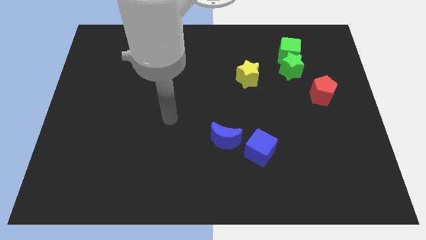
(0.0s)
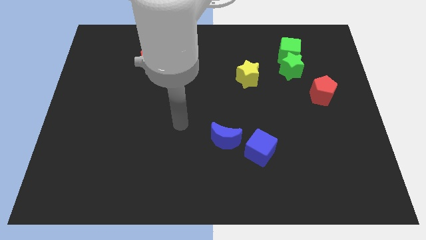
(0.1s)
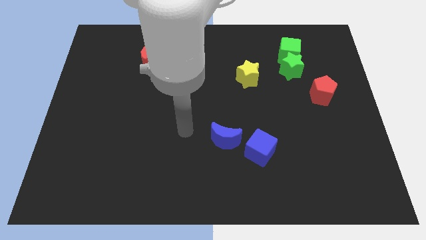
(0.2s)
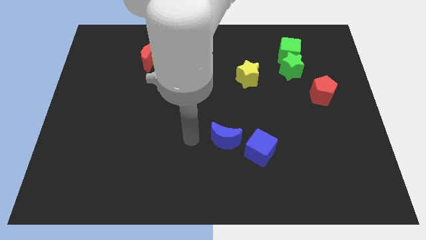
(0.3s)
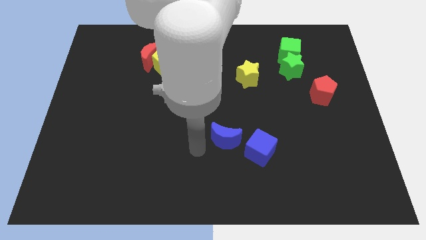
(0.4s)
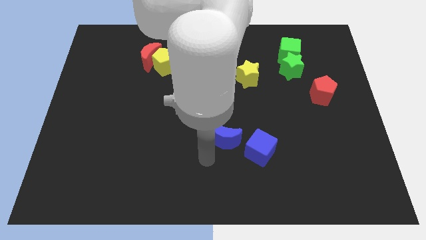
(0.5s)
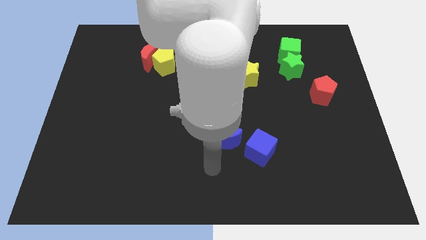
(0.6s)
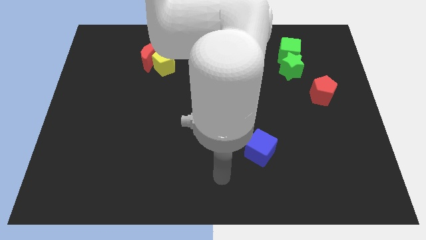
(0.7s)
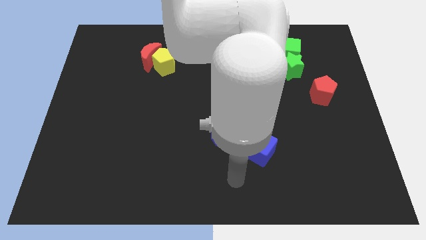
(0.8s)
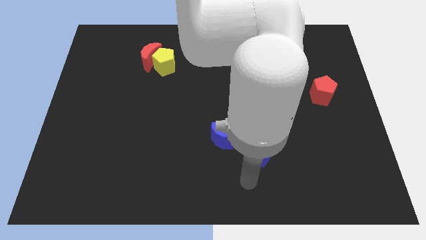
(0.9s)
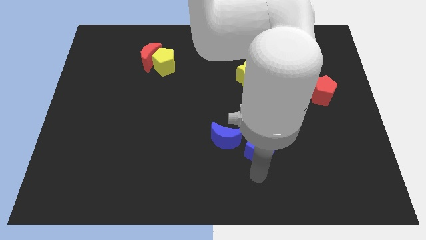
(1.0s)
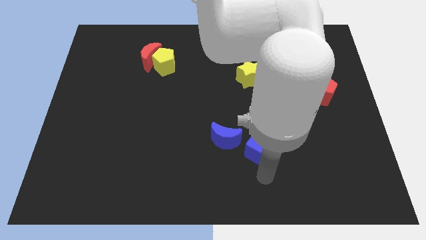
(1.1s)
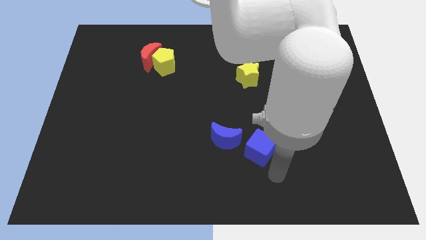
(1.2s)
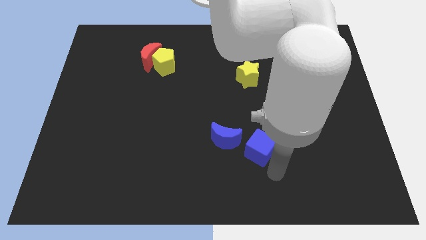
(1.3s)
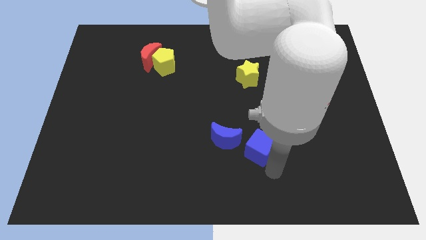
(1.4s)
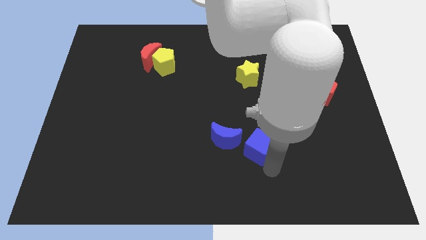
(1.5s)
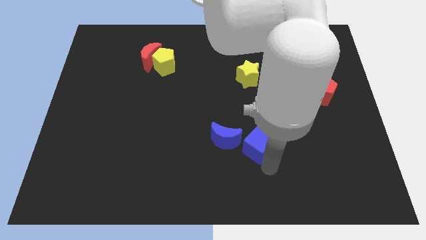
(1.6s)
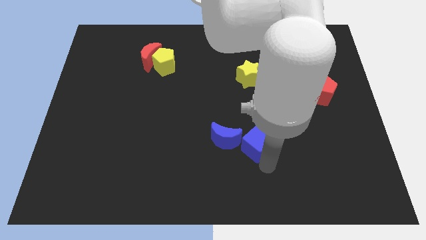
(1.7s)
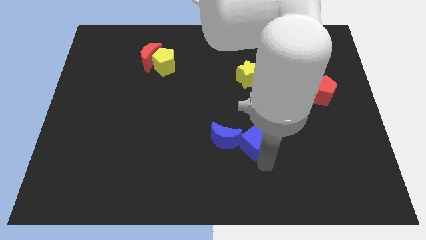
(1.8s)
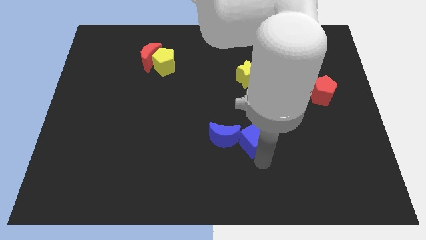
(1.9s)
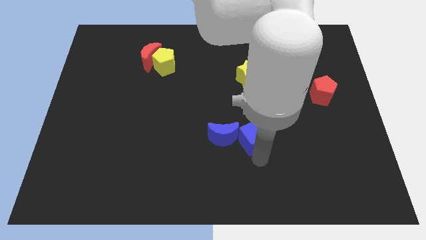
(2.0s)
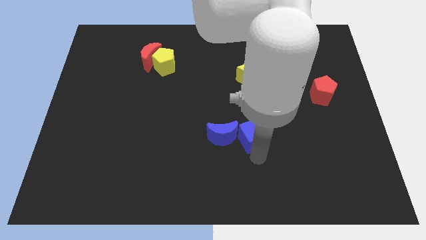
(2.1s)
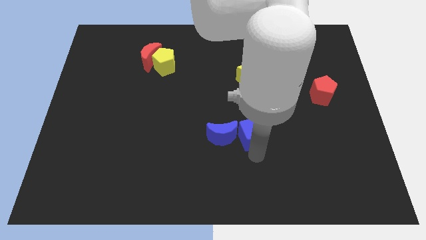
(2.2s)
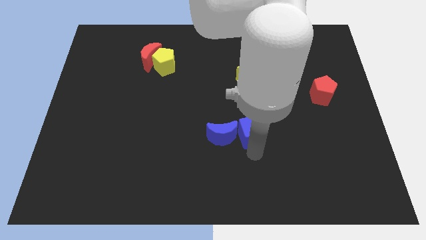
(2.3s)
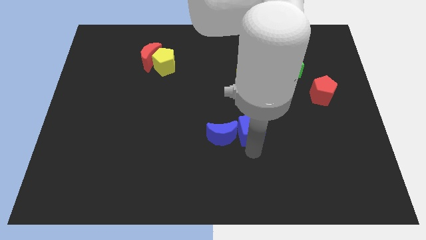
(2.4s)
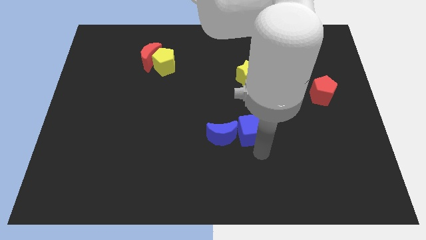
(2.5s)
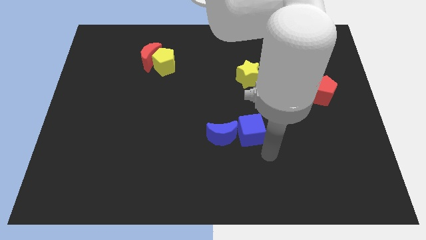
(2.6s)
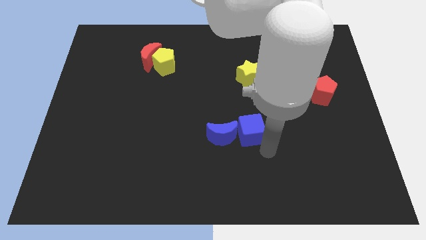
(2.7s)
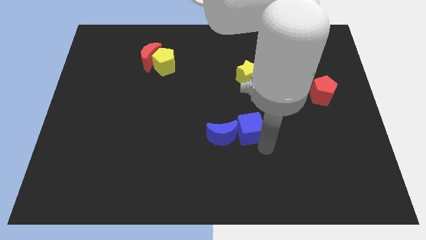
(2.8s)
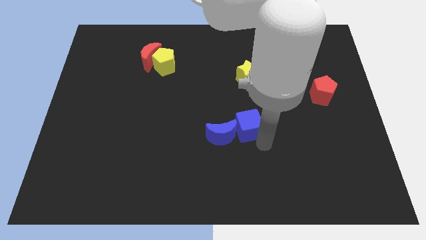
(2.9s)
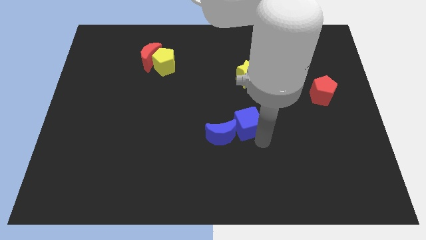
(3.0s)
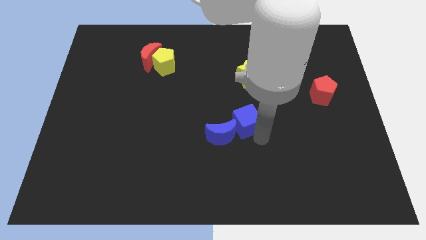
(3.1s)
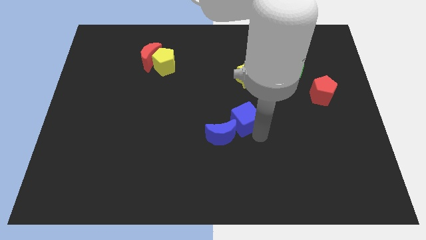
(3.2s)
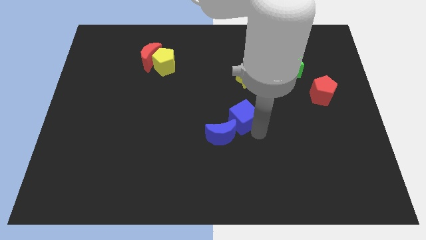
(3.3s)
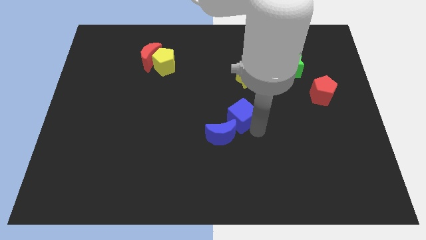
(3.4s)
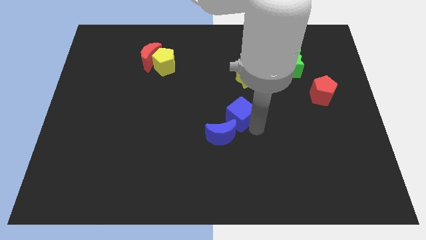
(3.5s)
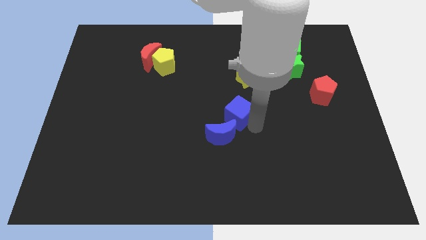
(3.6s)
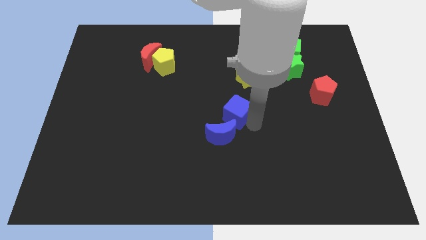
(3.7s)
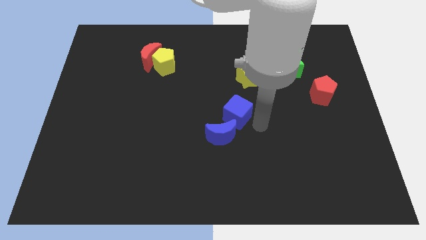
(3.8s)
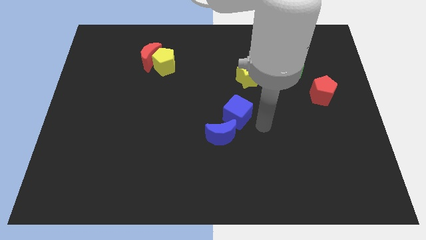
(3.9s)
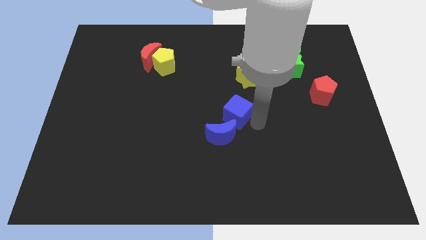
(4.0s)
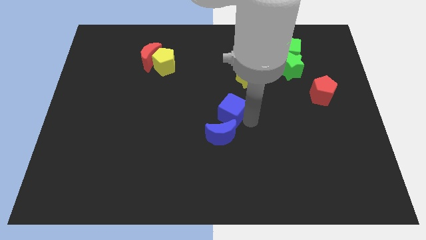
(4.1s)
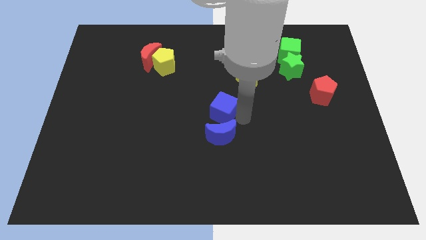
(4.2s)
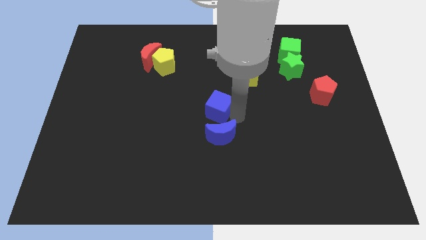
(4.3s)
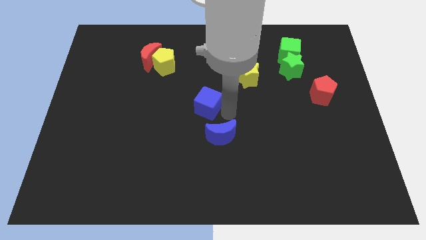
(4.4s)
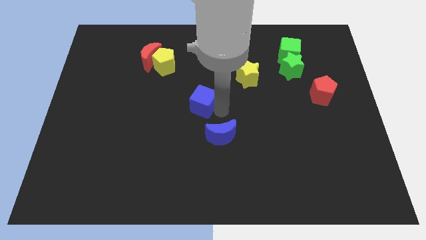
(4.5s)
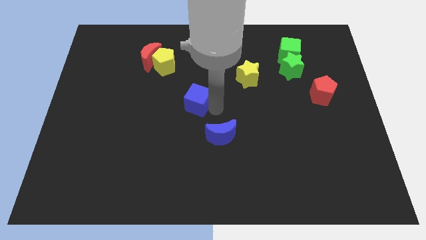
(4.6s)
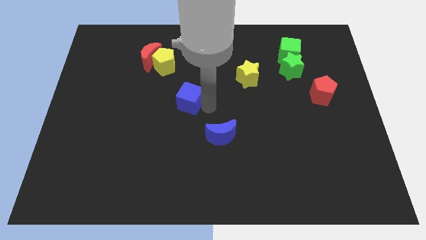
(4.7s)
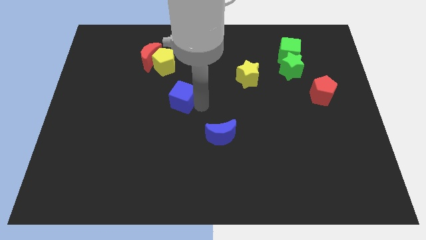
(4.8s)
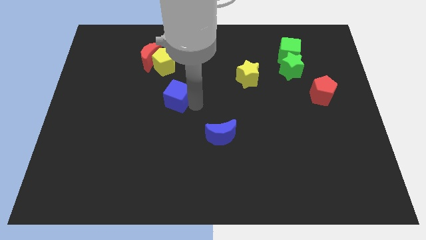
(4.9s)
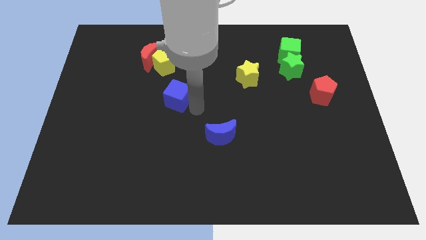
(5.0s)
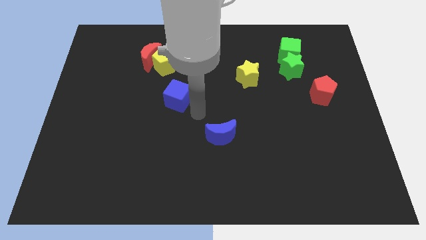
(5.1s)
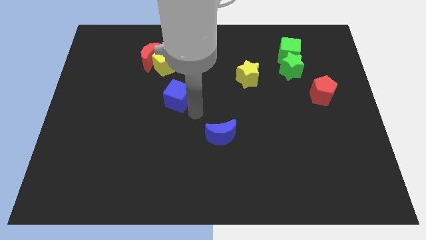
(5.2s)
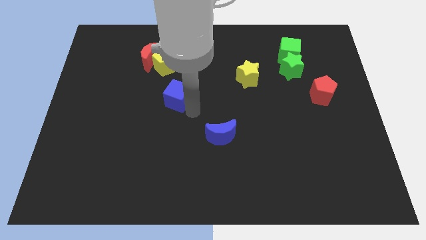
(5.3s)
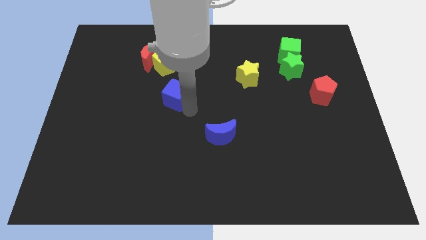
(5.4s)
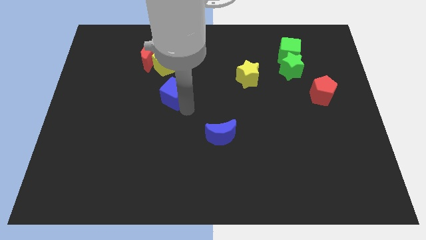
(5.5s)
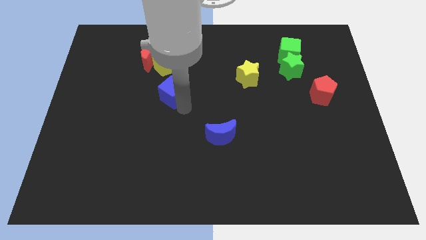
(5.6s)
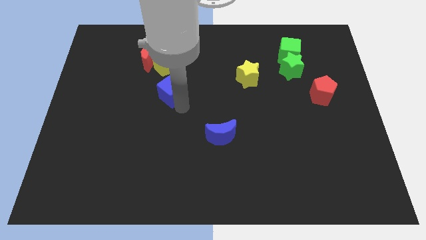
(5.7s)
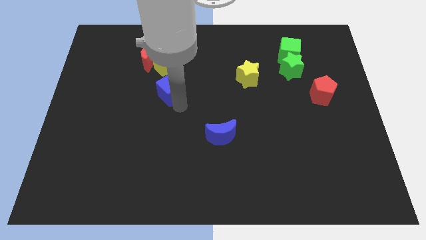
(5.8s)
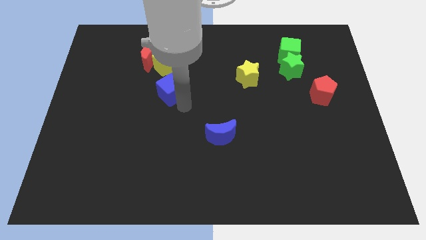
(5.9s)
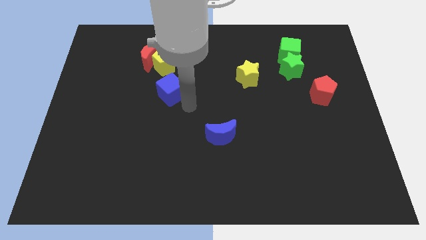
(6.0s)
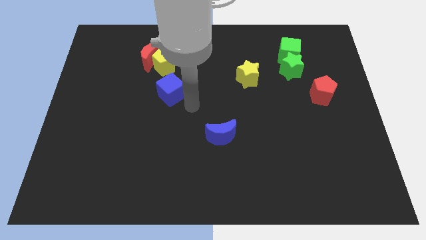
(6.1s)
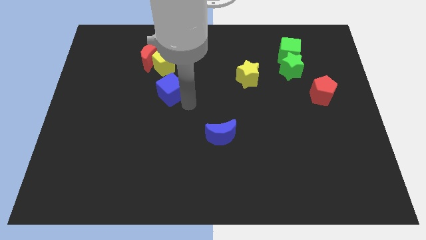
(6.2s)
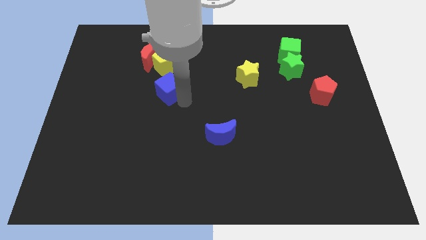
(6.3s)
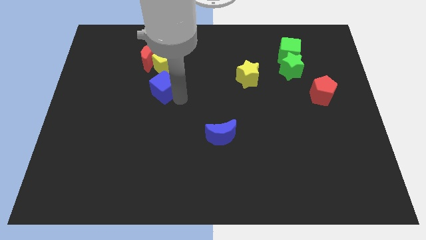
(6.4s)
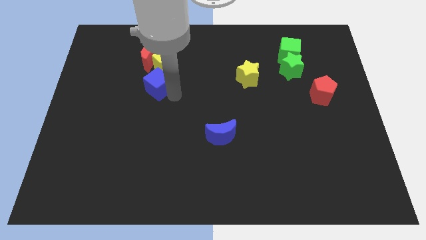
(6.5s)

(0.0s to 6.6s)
put the blue cube to the bottom left side of the yellow pentagon
